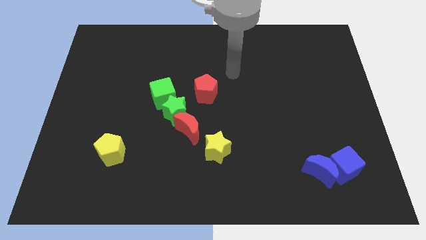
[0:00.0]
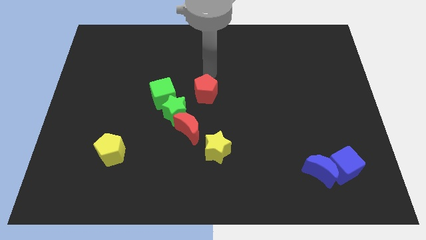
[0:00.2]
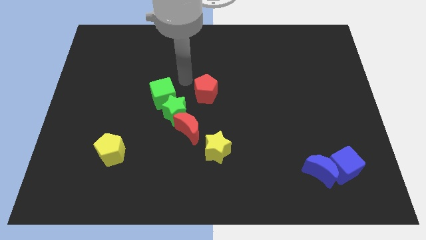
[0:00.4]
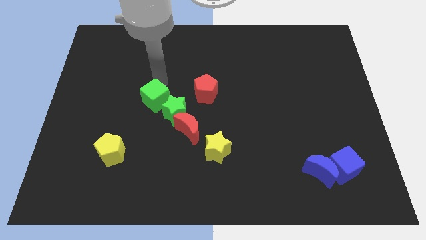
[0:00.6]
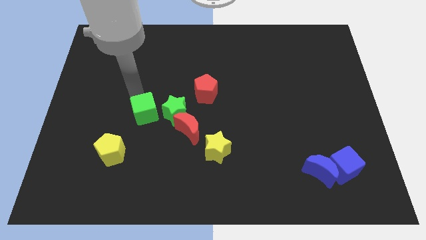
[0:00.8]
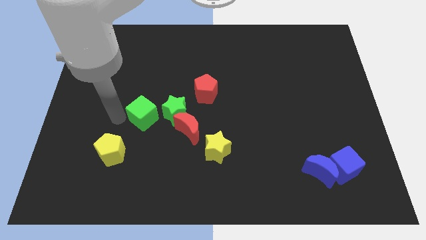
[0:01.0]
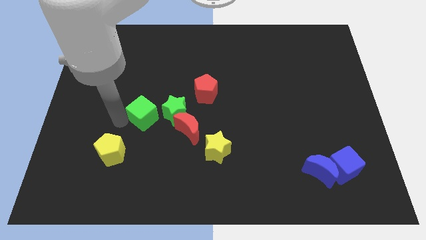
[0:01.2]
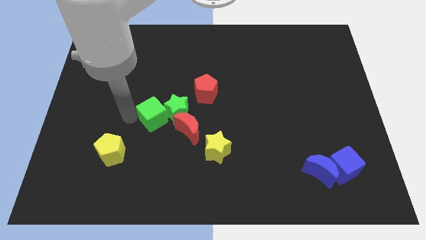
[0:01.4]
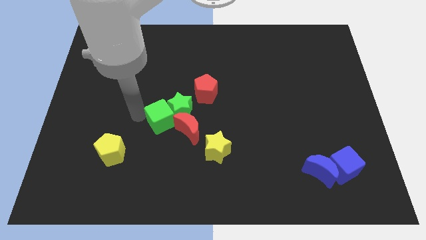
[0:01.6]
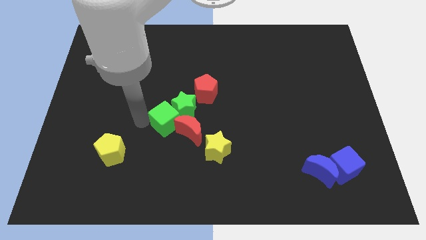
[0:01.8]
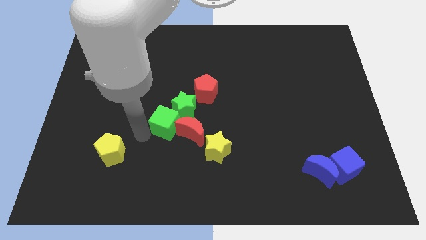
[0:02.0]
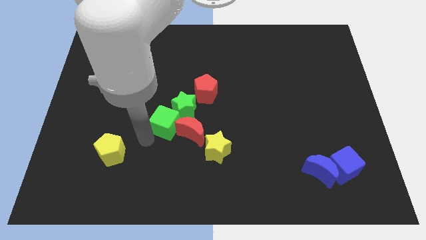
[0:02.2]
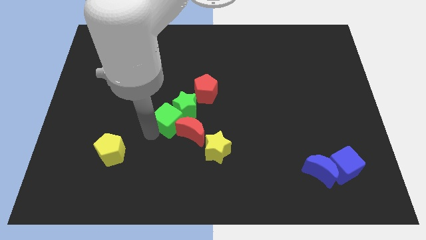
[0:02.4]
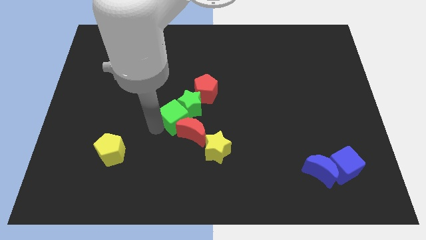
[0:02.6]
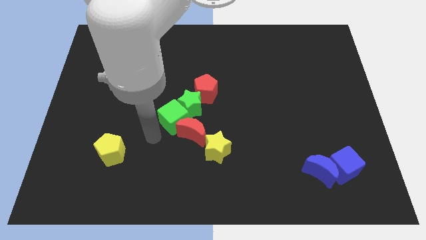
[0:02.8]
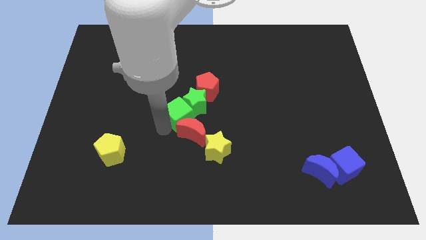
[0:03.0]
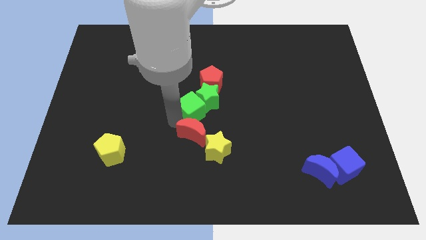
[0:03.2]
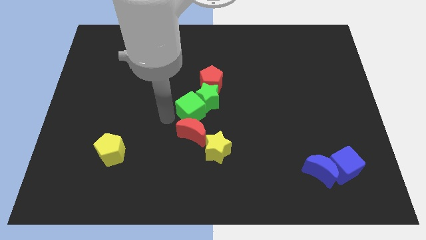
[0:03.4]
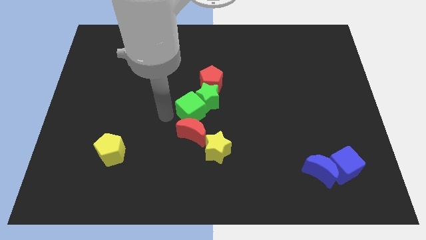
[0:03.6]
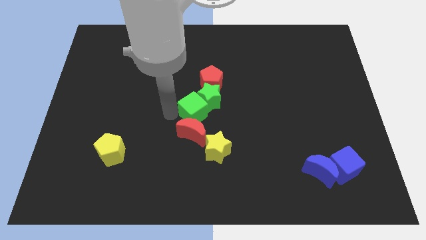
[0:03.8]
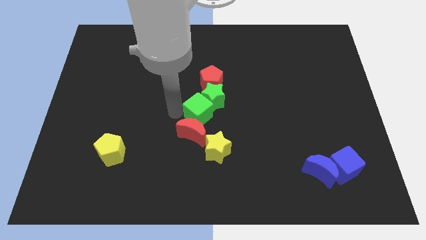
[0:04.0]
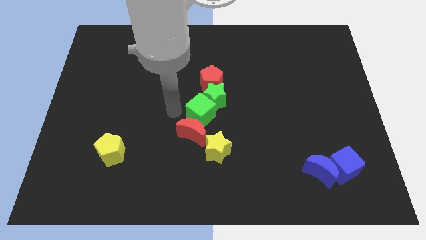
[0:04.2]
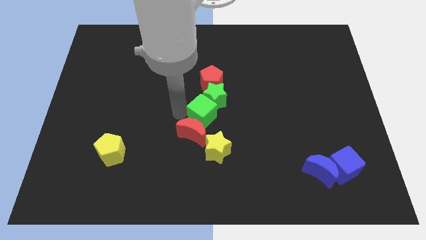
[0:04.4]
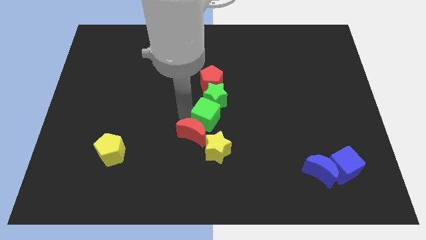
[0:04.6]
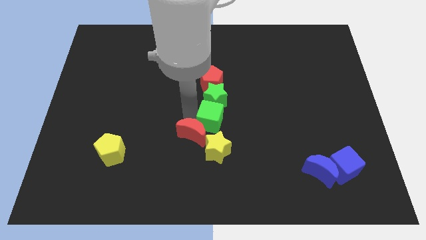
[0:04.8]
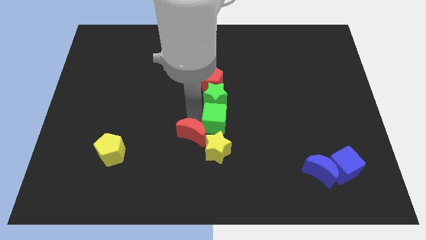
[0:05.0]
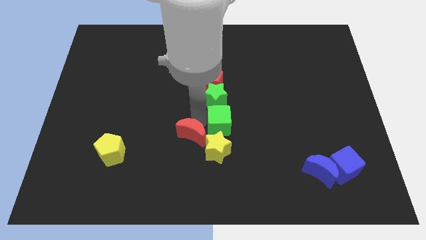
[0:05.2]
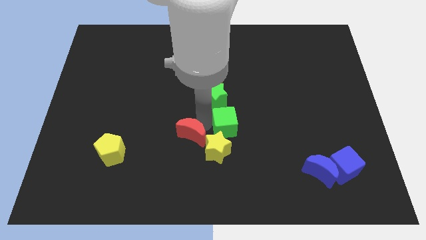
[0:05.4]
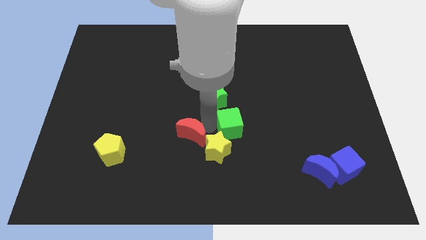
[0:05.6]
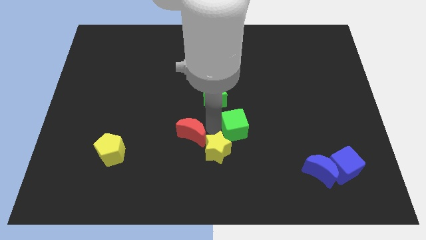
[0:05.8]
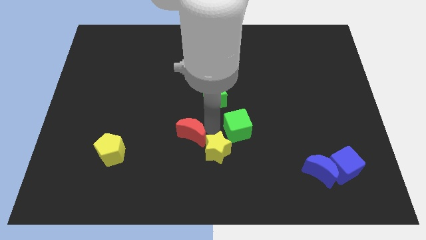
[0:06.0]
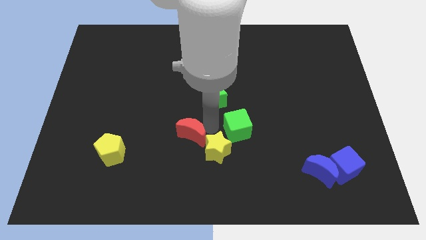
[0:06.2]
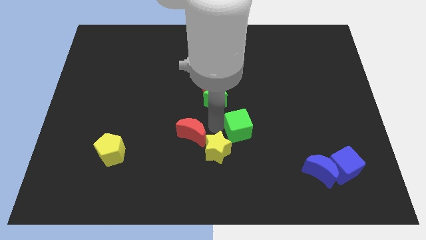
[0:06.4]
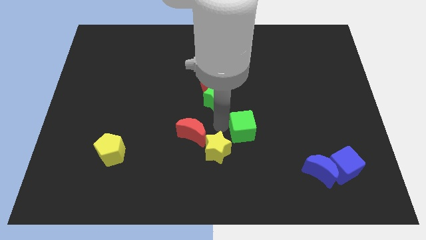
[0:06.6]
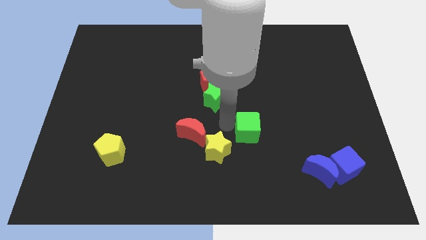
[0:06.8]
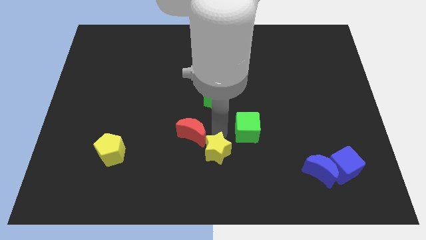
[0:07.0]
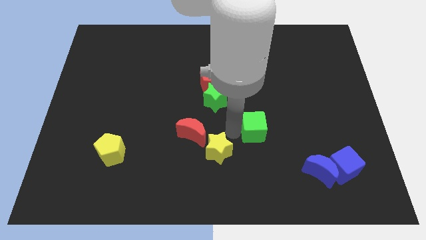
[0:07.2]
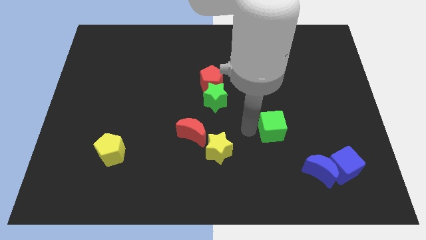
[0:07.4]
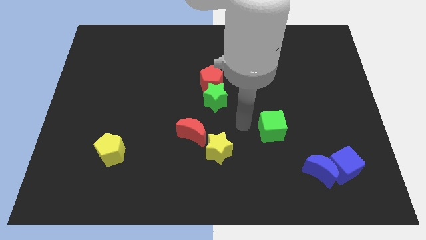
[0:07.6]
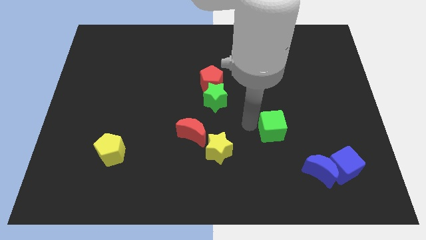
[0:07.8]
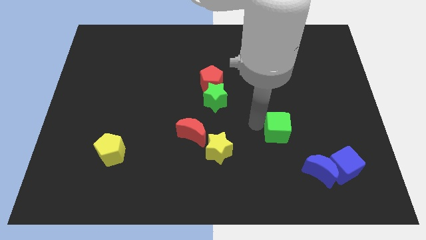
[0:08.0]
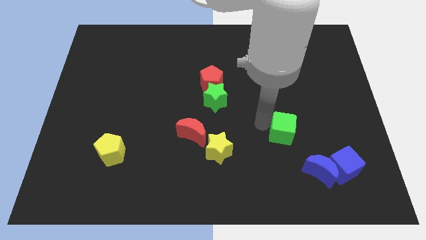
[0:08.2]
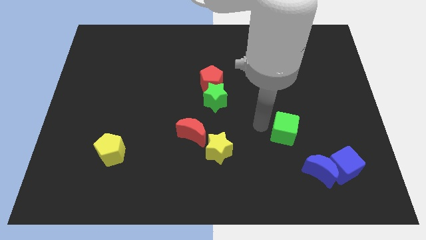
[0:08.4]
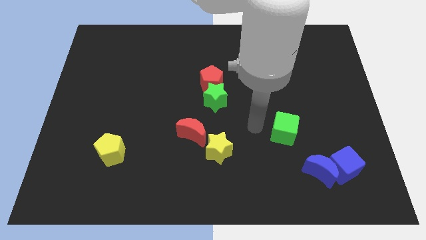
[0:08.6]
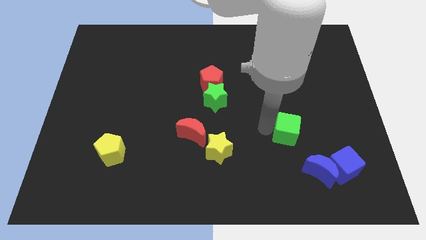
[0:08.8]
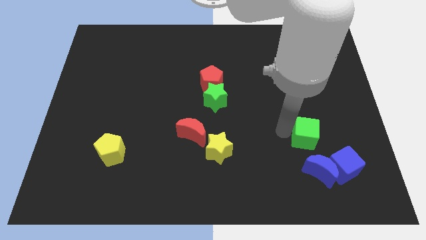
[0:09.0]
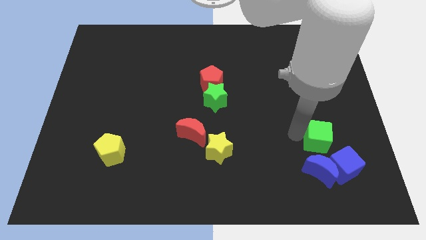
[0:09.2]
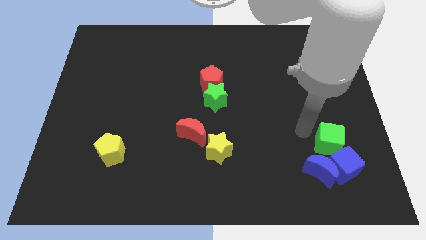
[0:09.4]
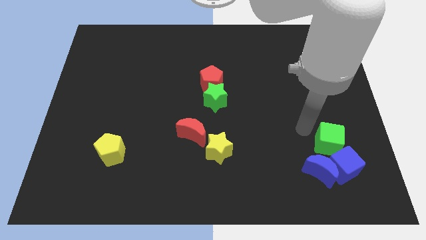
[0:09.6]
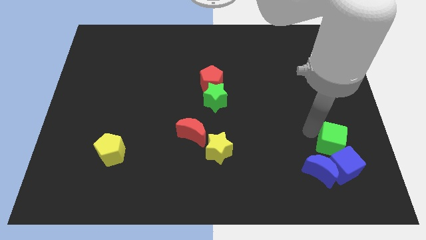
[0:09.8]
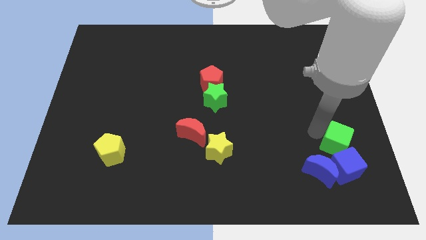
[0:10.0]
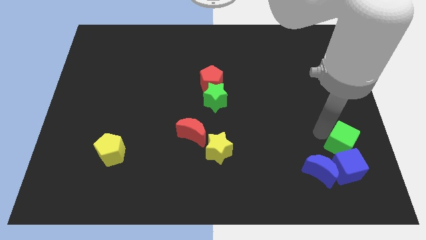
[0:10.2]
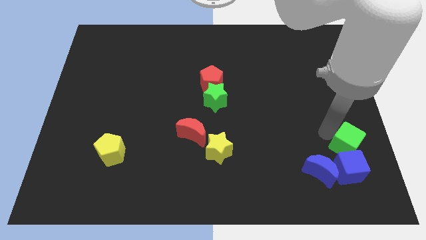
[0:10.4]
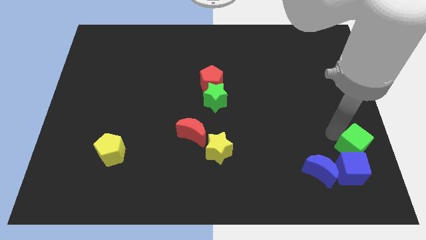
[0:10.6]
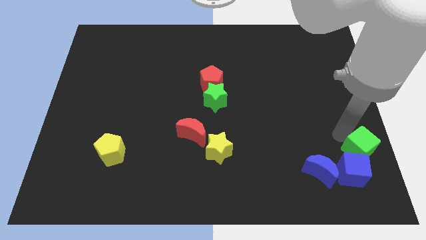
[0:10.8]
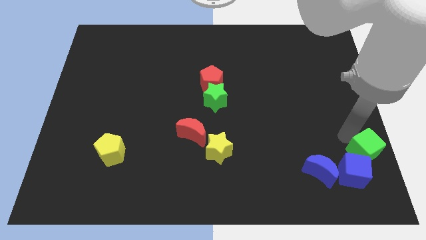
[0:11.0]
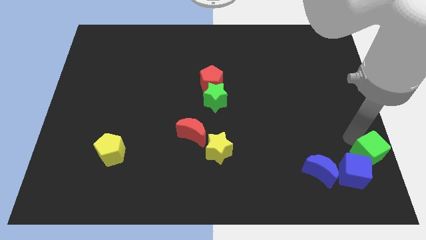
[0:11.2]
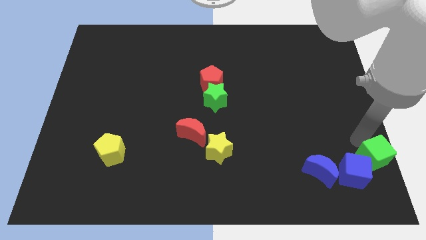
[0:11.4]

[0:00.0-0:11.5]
move the green cube to the lower right corner
